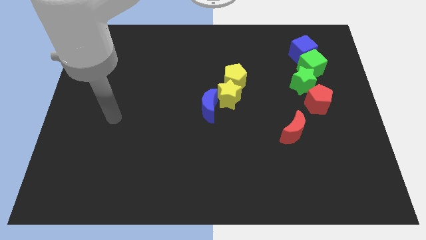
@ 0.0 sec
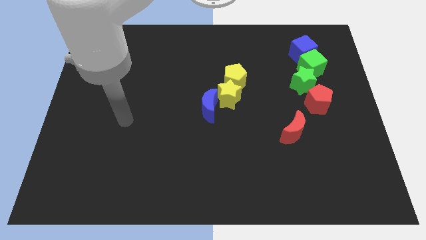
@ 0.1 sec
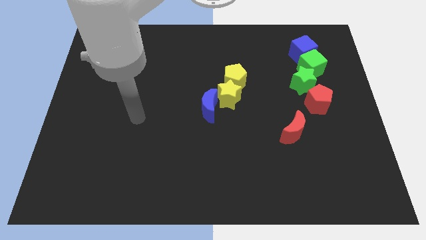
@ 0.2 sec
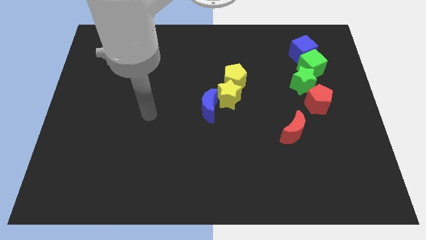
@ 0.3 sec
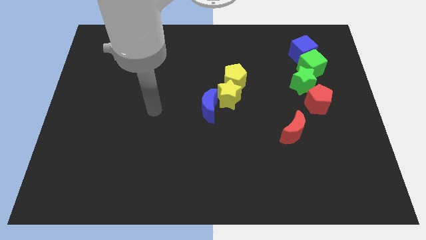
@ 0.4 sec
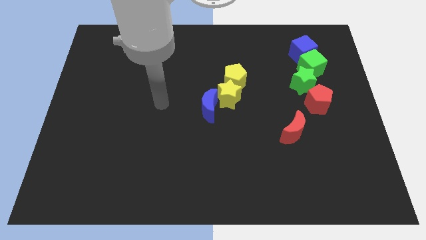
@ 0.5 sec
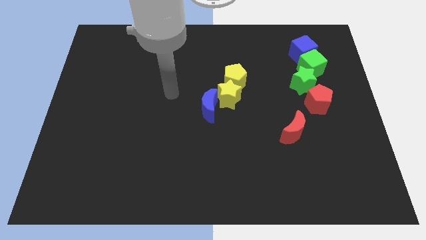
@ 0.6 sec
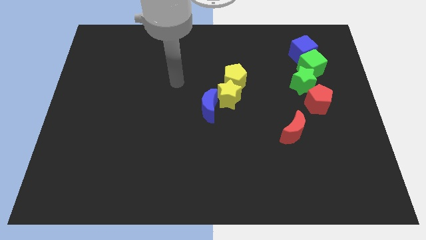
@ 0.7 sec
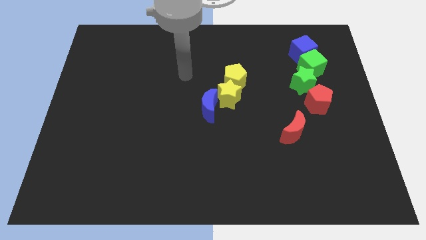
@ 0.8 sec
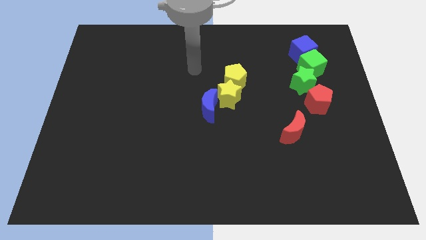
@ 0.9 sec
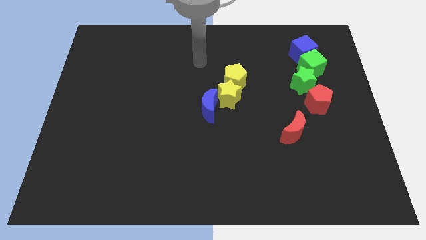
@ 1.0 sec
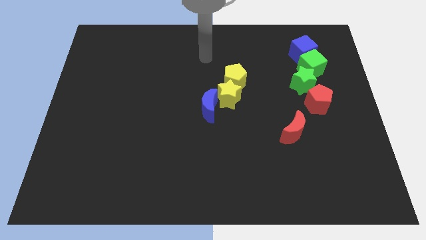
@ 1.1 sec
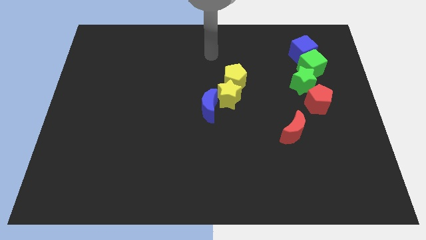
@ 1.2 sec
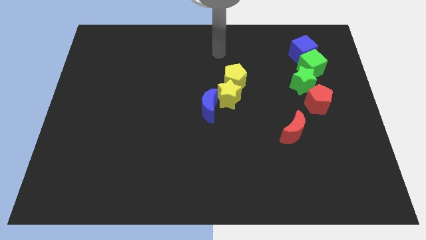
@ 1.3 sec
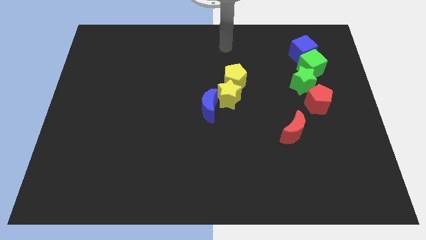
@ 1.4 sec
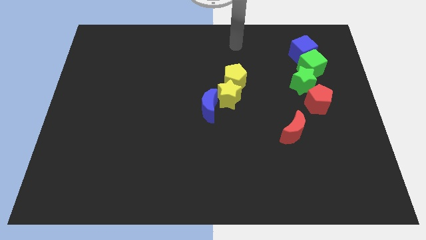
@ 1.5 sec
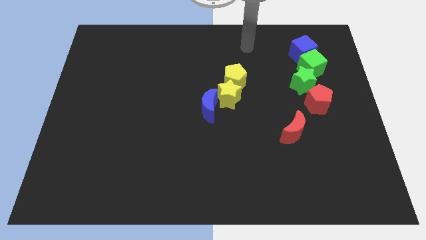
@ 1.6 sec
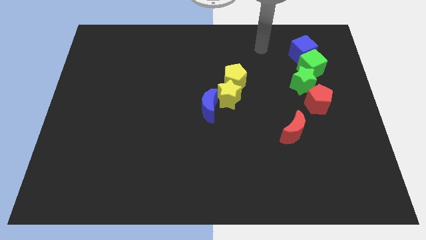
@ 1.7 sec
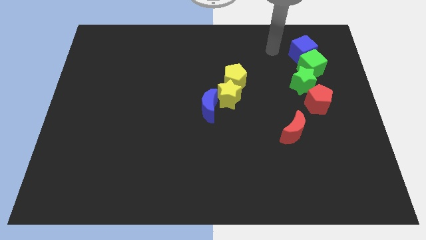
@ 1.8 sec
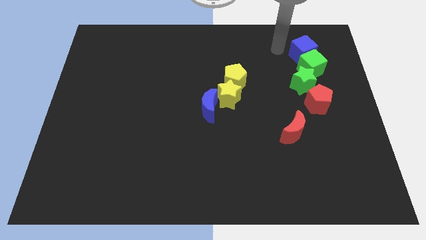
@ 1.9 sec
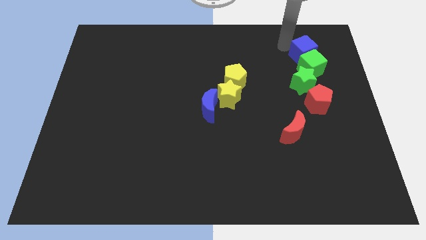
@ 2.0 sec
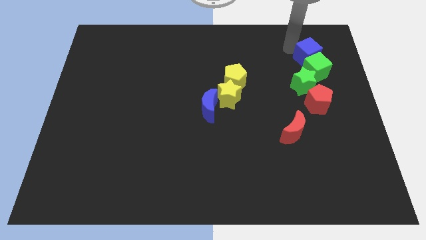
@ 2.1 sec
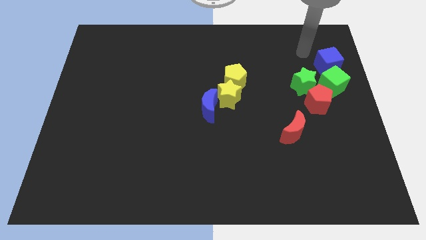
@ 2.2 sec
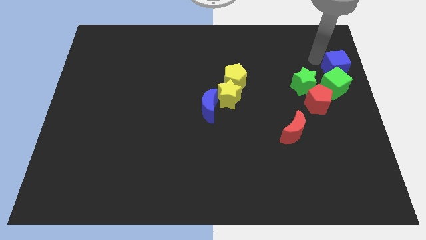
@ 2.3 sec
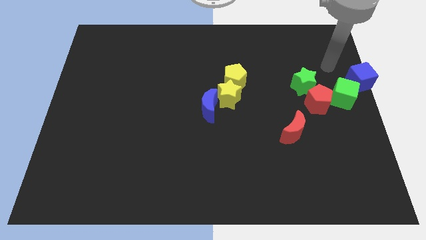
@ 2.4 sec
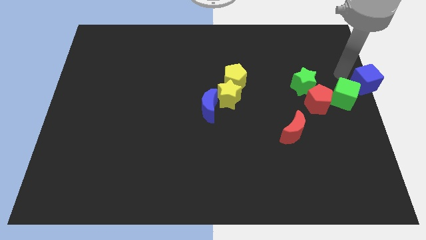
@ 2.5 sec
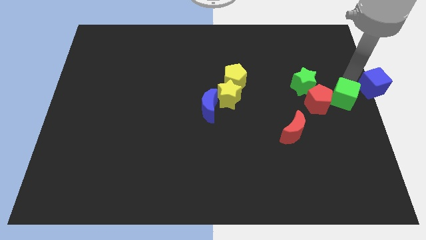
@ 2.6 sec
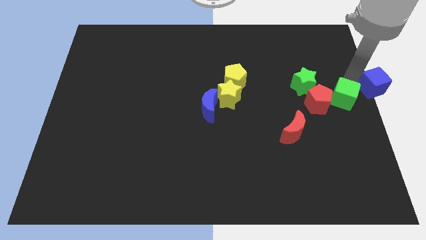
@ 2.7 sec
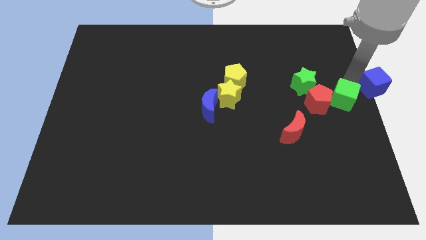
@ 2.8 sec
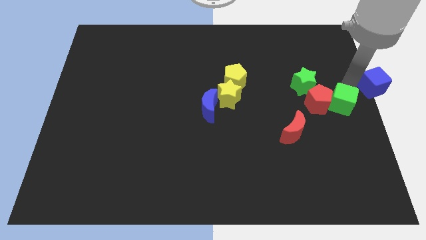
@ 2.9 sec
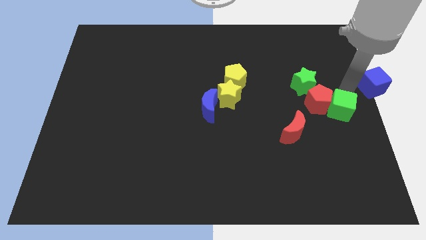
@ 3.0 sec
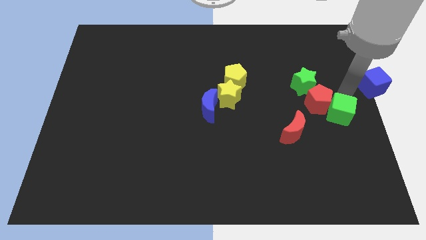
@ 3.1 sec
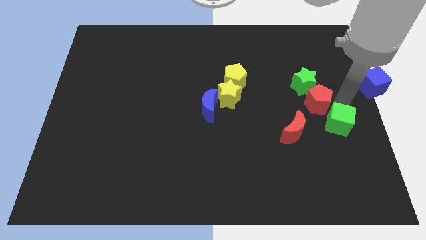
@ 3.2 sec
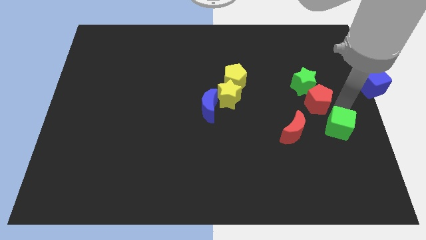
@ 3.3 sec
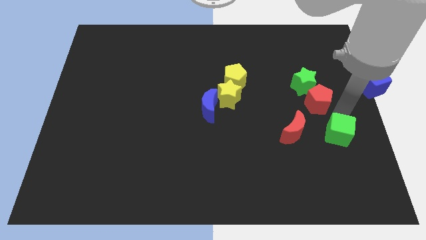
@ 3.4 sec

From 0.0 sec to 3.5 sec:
slide the green cube down

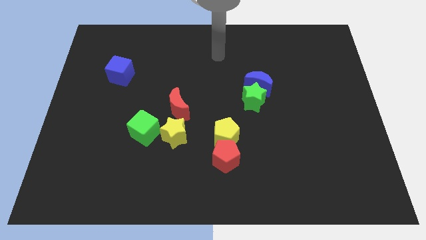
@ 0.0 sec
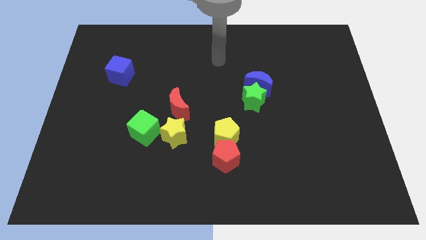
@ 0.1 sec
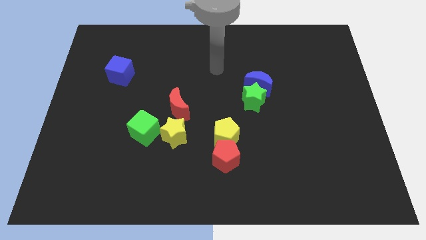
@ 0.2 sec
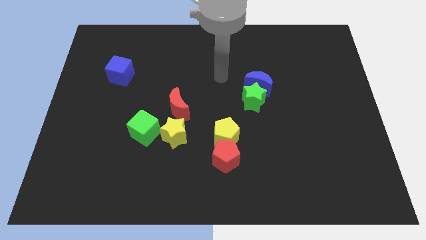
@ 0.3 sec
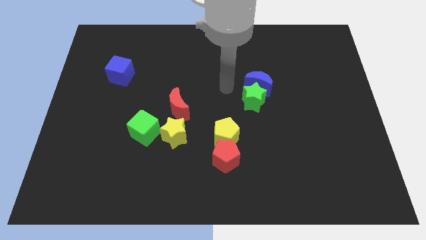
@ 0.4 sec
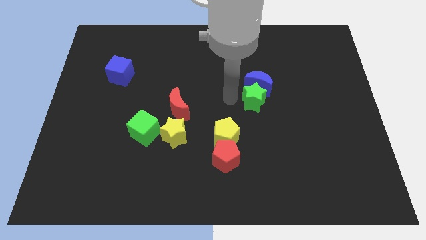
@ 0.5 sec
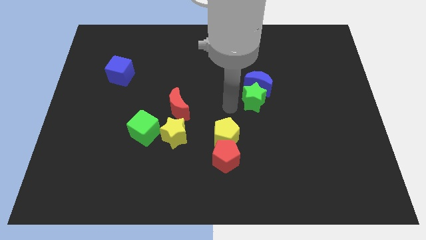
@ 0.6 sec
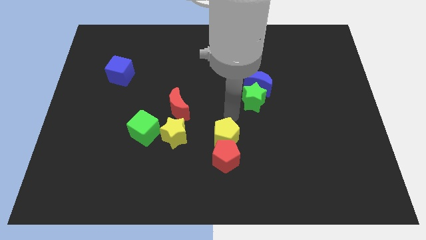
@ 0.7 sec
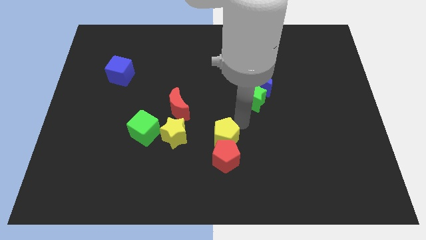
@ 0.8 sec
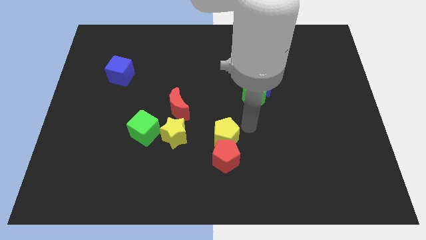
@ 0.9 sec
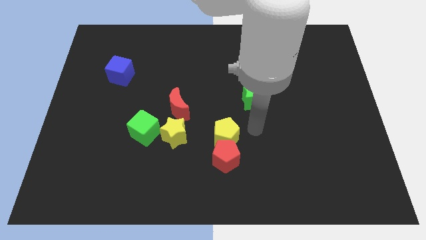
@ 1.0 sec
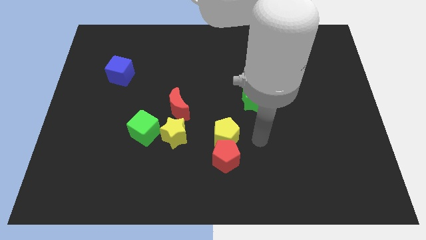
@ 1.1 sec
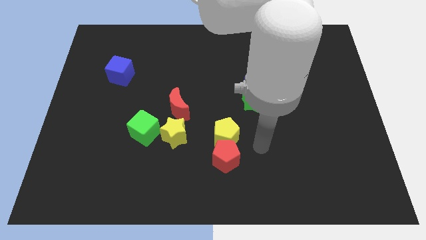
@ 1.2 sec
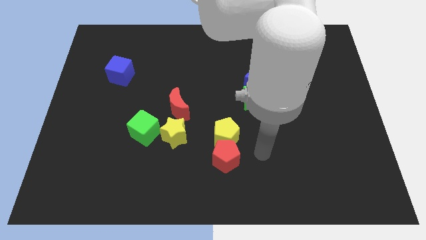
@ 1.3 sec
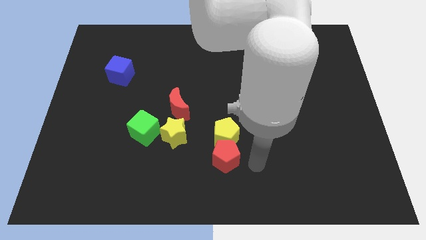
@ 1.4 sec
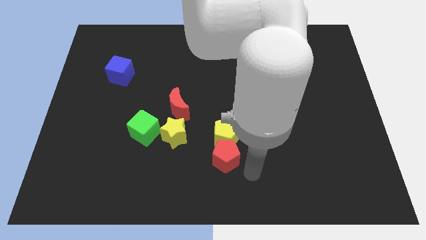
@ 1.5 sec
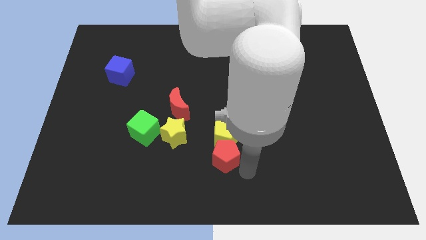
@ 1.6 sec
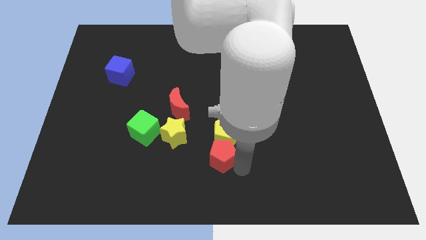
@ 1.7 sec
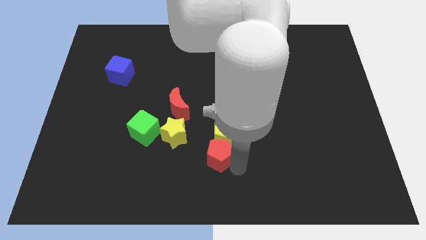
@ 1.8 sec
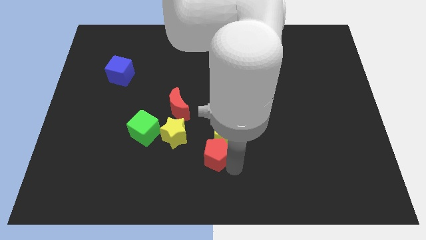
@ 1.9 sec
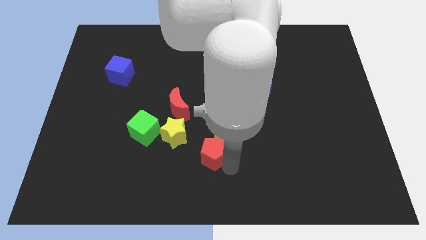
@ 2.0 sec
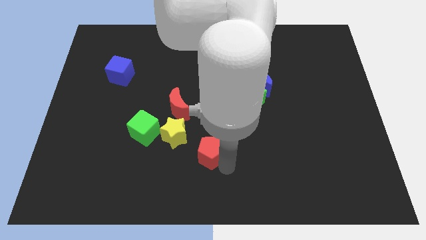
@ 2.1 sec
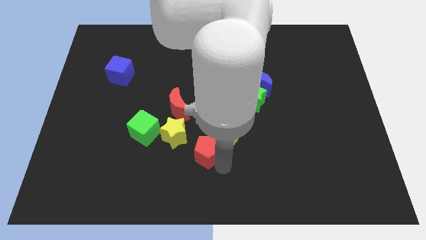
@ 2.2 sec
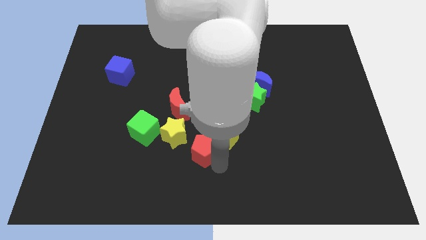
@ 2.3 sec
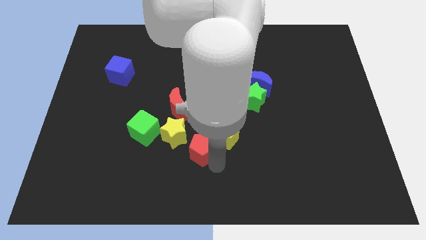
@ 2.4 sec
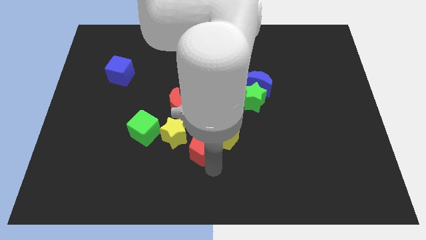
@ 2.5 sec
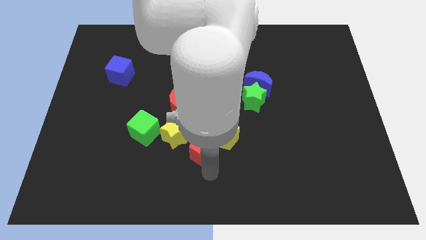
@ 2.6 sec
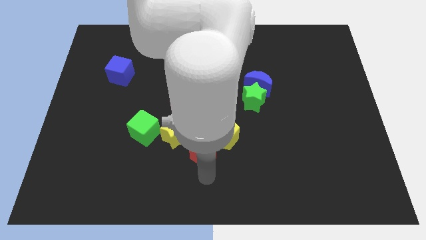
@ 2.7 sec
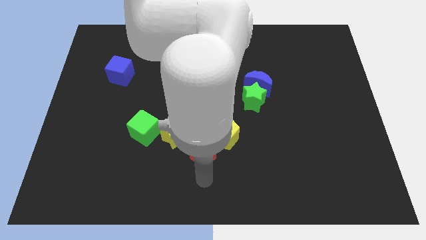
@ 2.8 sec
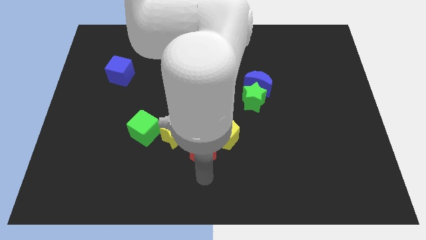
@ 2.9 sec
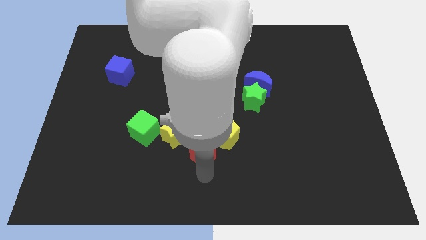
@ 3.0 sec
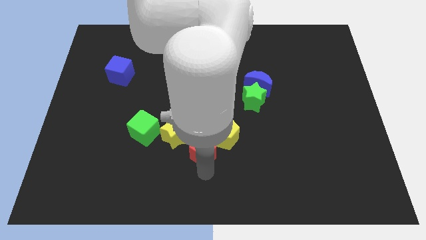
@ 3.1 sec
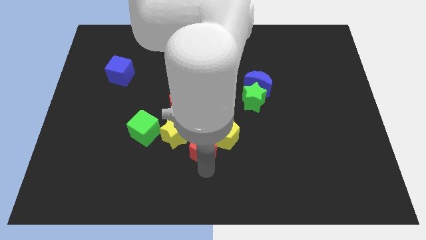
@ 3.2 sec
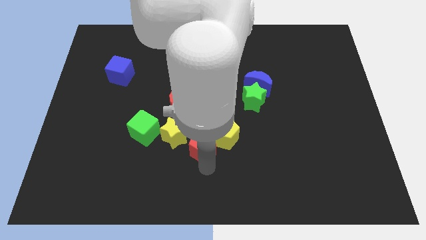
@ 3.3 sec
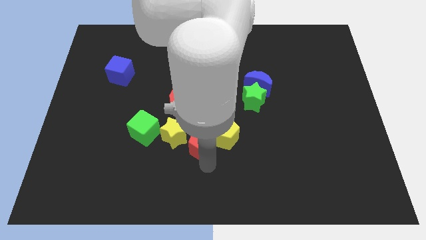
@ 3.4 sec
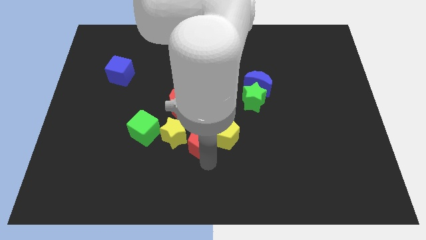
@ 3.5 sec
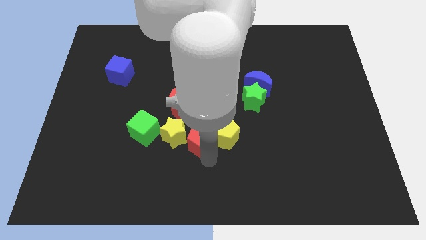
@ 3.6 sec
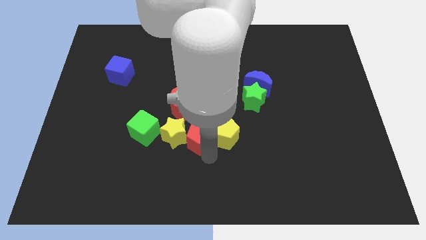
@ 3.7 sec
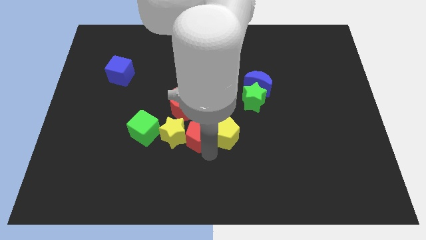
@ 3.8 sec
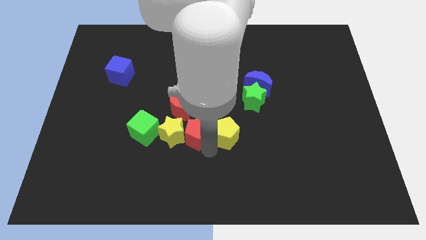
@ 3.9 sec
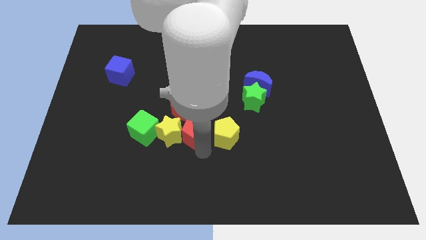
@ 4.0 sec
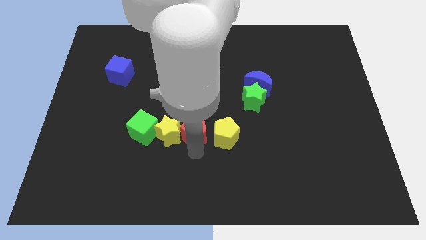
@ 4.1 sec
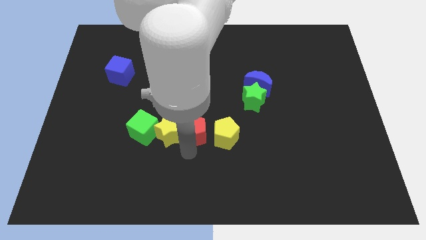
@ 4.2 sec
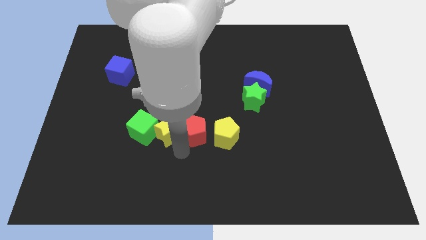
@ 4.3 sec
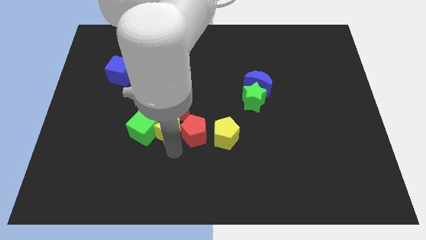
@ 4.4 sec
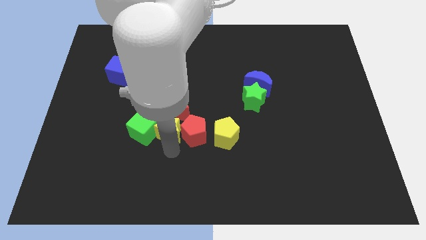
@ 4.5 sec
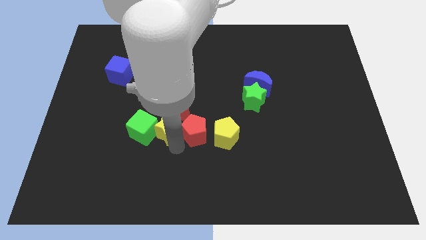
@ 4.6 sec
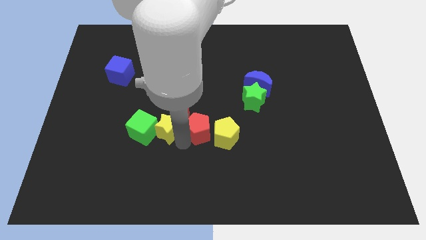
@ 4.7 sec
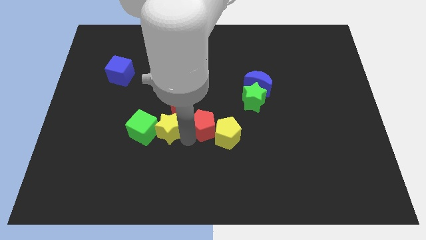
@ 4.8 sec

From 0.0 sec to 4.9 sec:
slightly slide the red pentagon up
